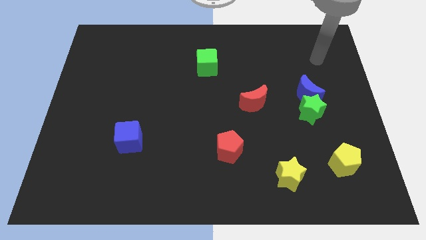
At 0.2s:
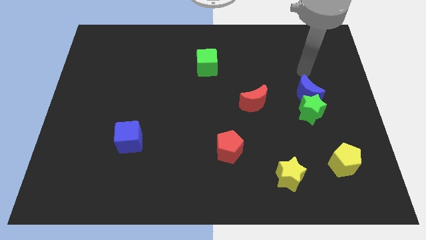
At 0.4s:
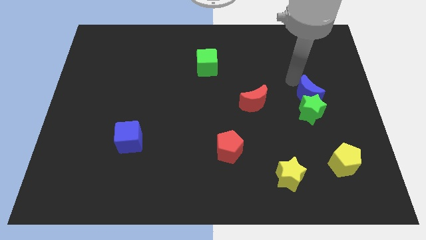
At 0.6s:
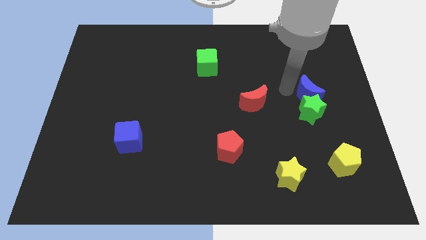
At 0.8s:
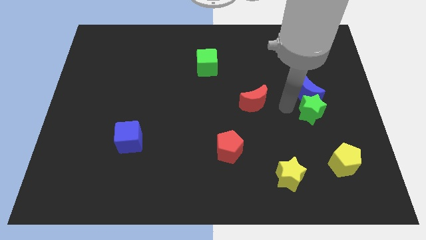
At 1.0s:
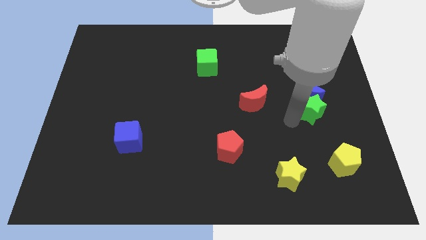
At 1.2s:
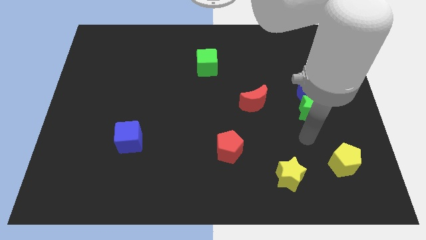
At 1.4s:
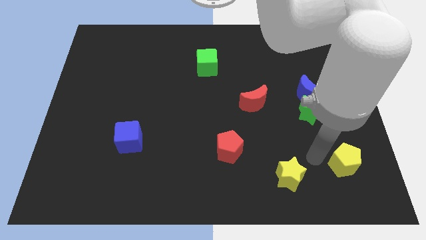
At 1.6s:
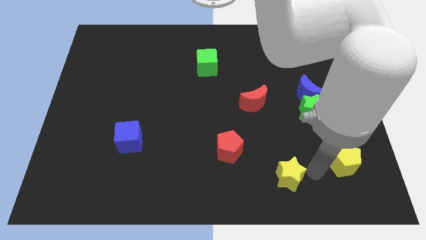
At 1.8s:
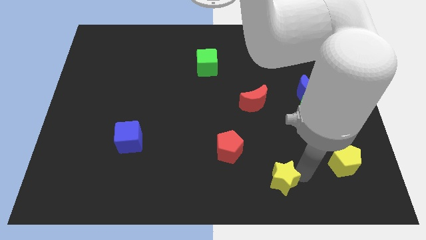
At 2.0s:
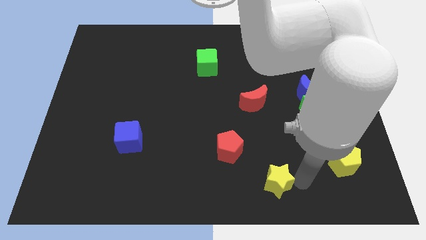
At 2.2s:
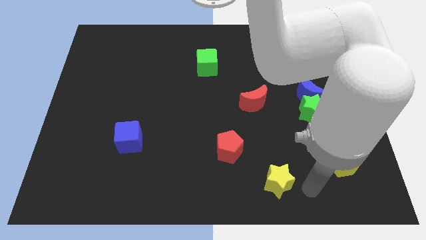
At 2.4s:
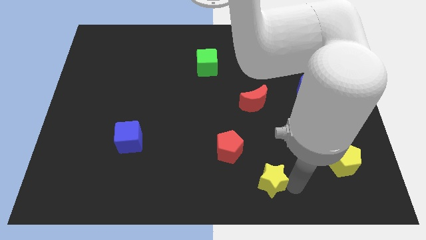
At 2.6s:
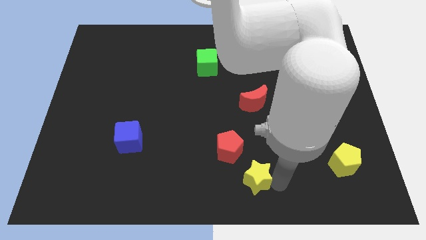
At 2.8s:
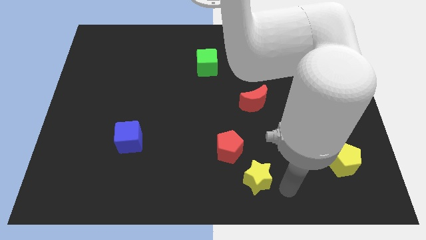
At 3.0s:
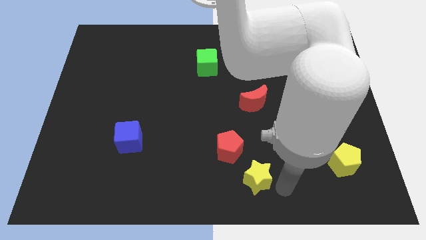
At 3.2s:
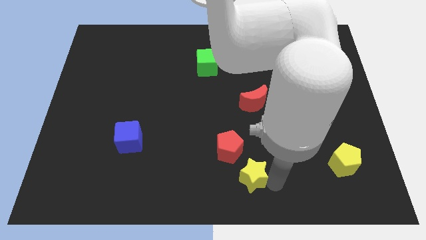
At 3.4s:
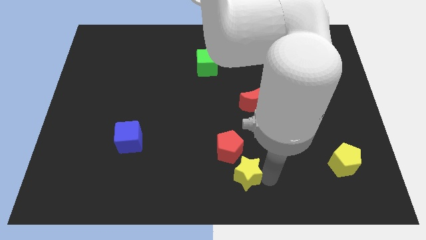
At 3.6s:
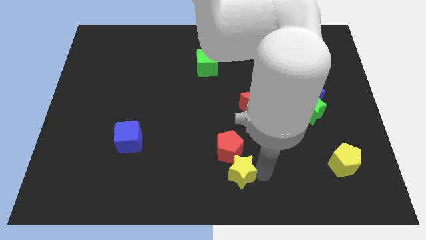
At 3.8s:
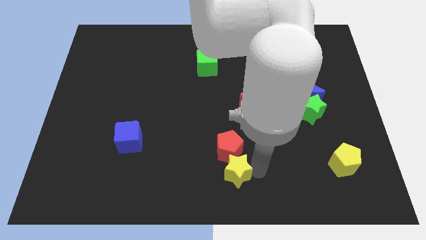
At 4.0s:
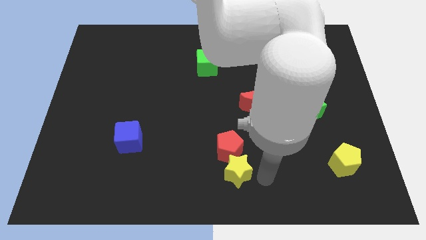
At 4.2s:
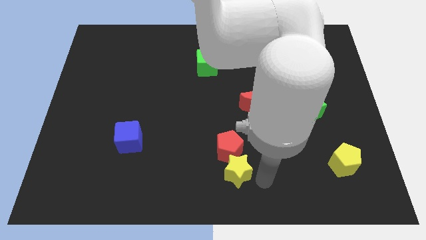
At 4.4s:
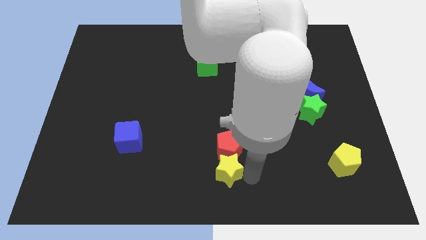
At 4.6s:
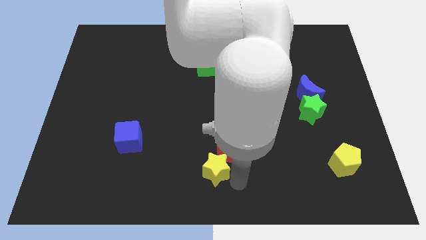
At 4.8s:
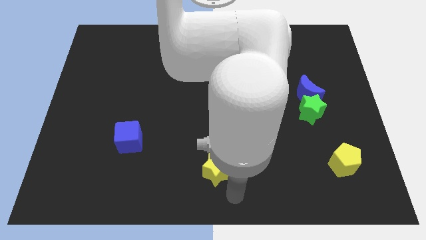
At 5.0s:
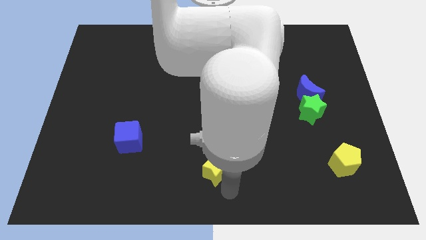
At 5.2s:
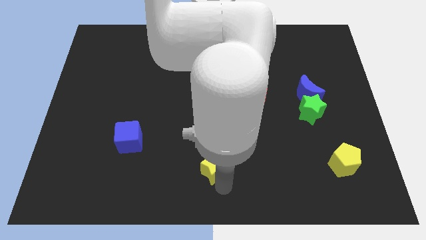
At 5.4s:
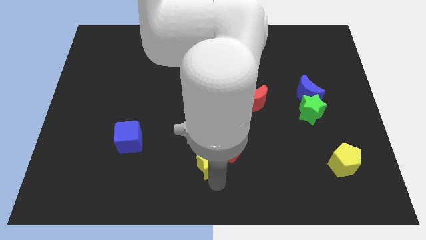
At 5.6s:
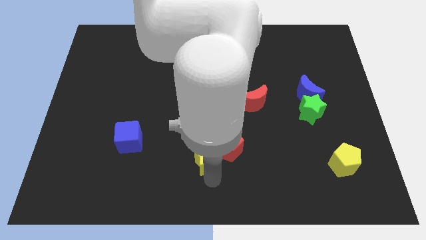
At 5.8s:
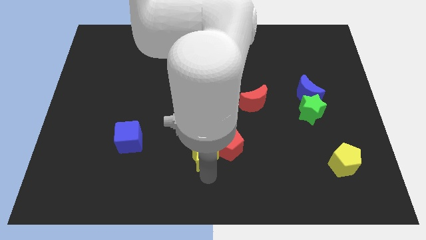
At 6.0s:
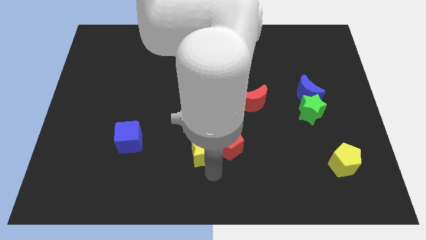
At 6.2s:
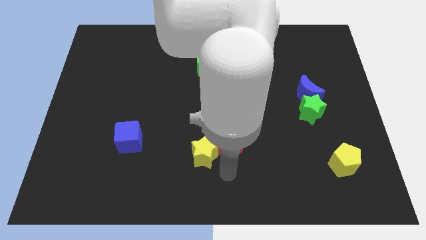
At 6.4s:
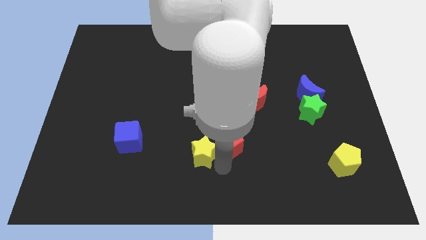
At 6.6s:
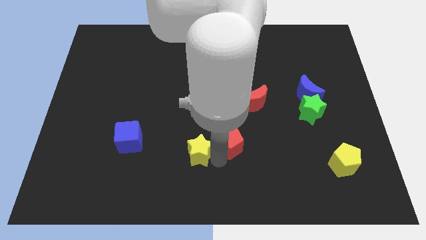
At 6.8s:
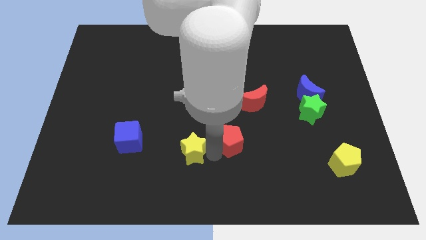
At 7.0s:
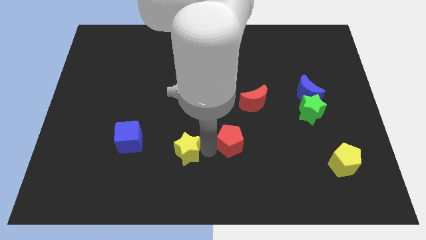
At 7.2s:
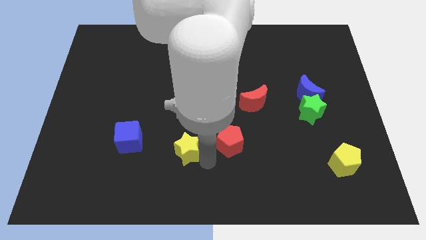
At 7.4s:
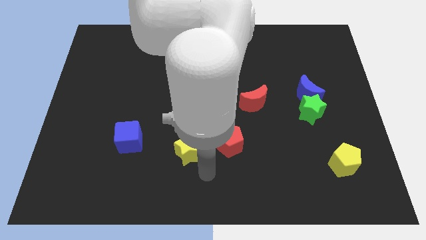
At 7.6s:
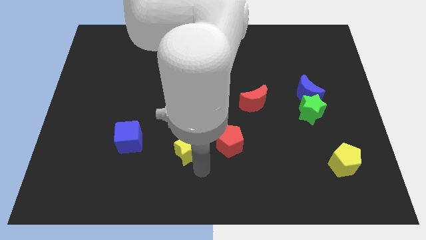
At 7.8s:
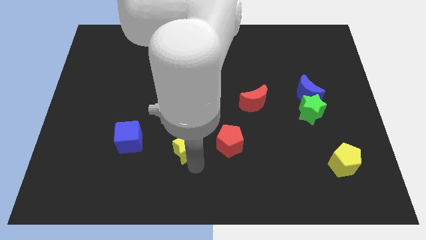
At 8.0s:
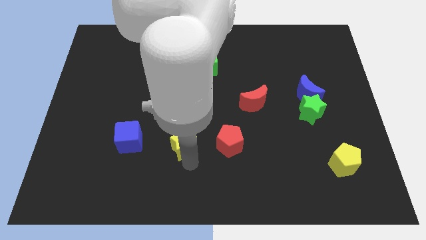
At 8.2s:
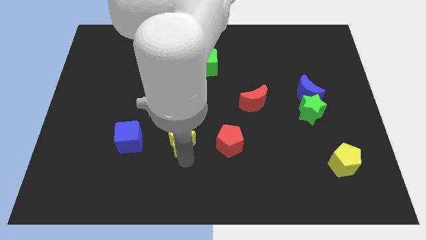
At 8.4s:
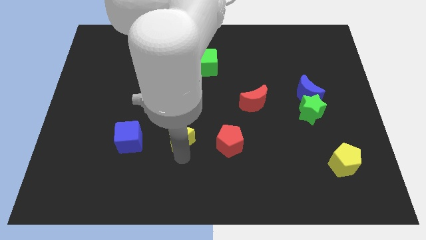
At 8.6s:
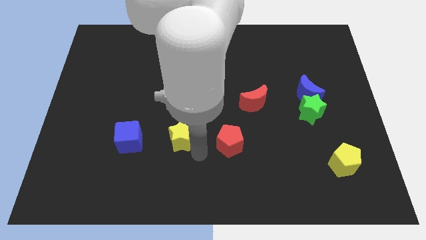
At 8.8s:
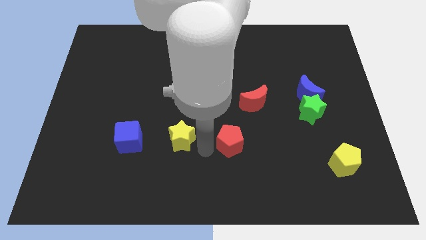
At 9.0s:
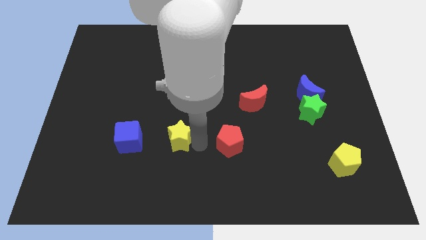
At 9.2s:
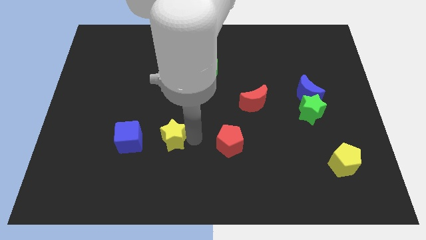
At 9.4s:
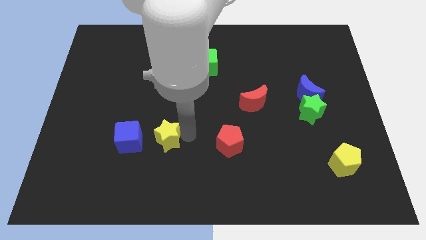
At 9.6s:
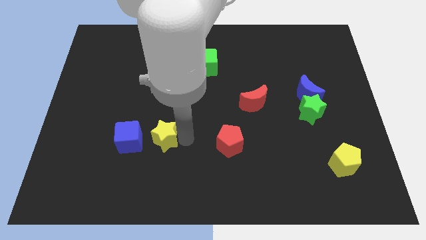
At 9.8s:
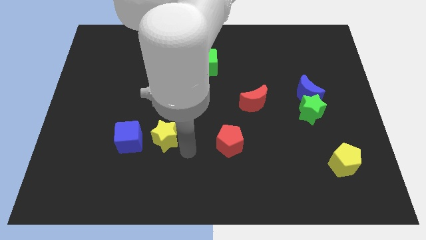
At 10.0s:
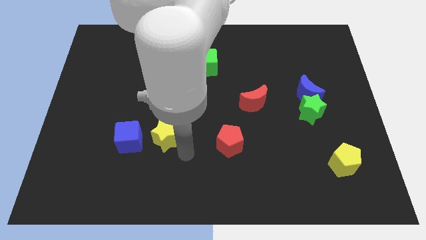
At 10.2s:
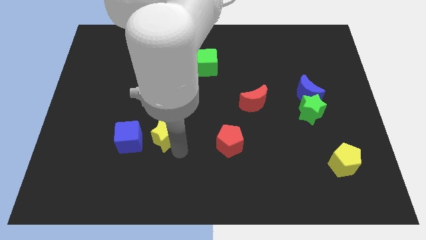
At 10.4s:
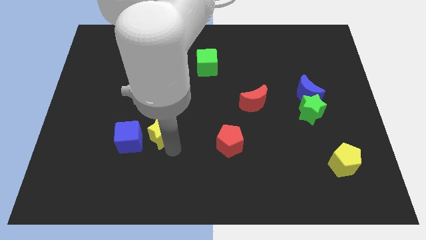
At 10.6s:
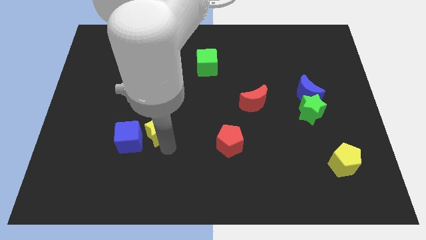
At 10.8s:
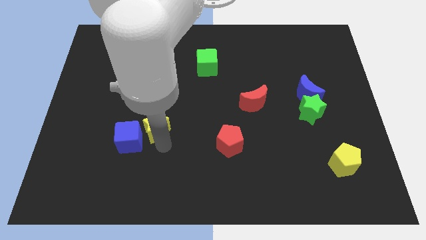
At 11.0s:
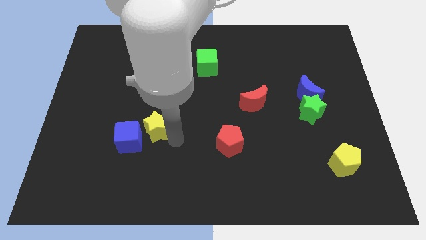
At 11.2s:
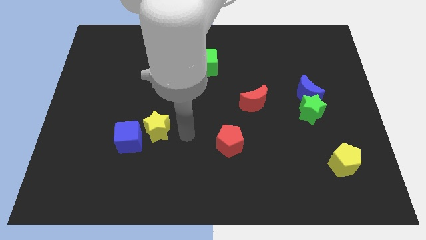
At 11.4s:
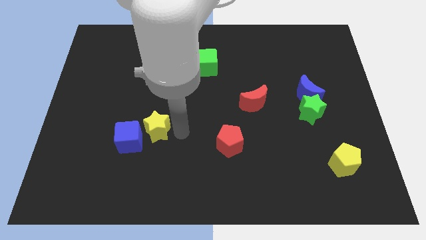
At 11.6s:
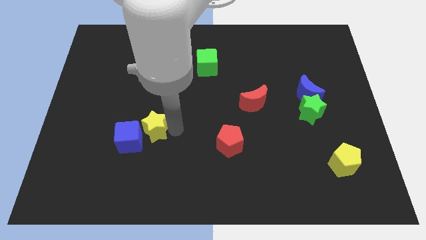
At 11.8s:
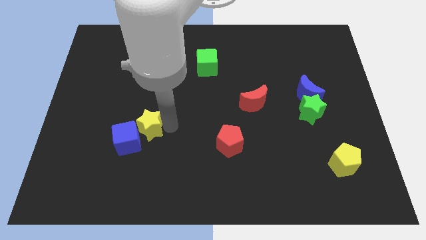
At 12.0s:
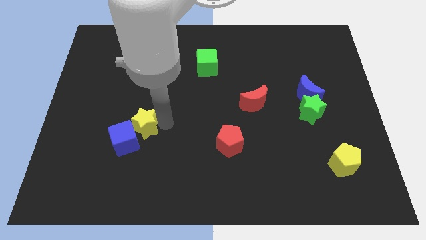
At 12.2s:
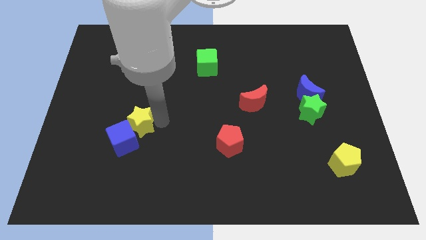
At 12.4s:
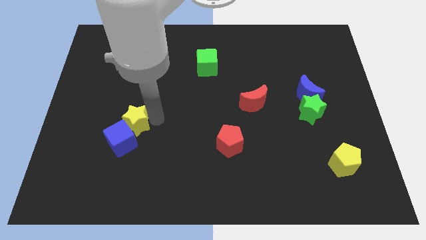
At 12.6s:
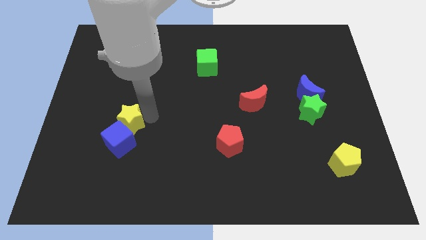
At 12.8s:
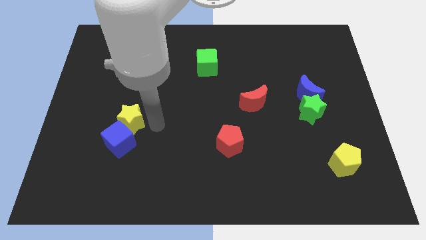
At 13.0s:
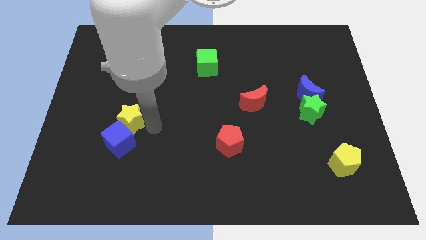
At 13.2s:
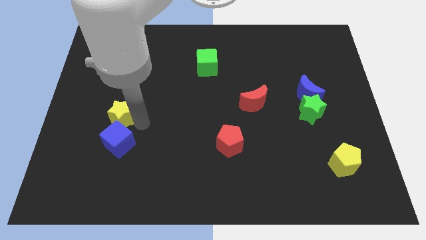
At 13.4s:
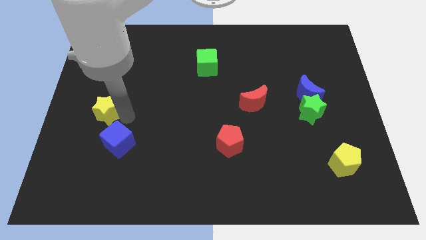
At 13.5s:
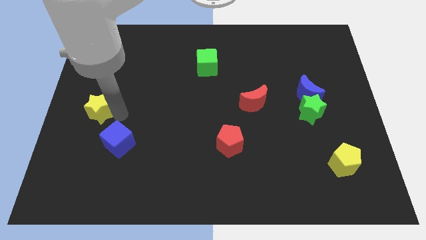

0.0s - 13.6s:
put the yellow star to the left side
